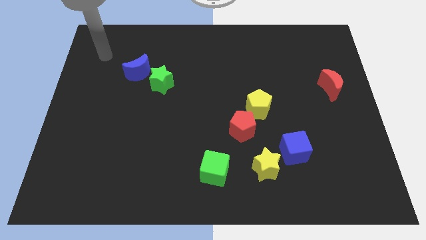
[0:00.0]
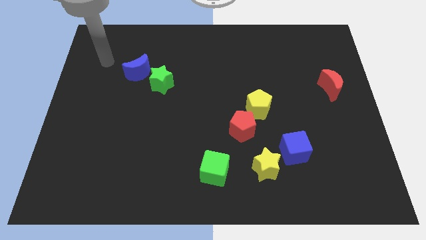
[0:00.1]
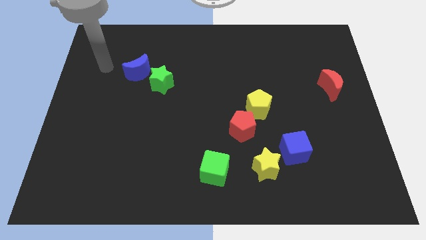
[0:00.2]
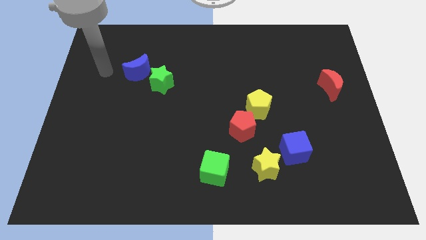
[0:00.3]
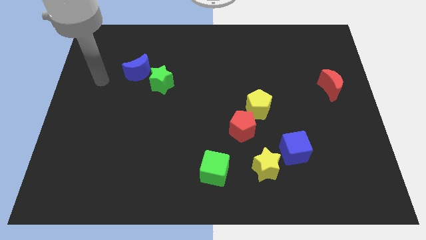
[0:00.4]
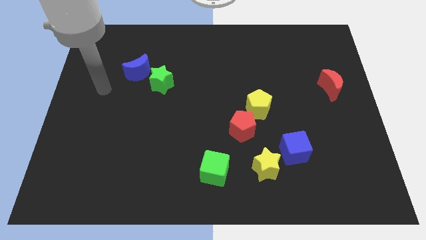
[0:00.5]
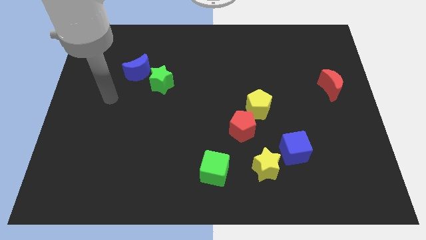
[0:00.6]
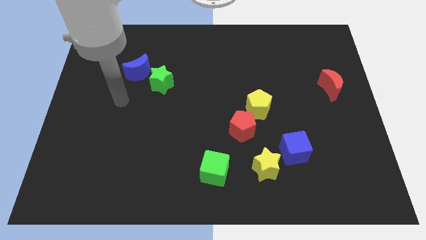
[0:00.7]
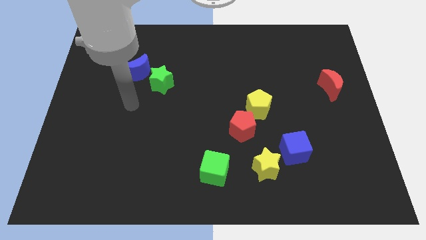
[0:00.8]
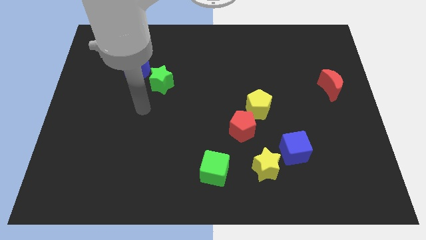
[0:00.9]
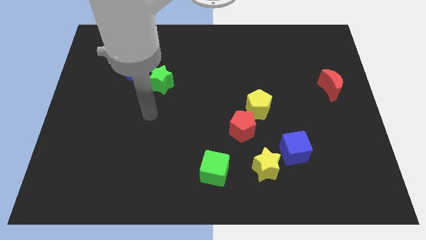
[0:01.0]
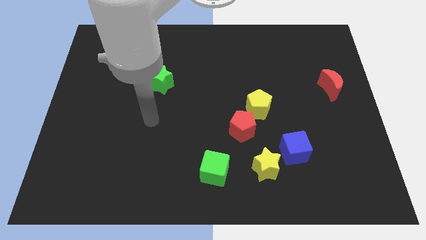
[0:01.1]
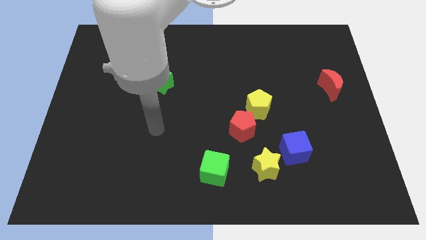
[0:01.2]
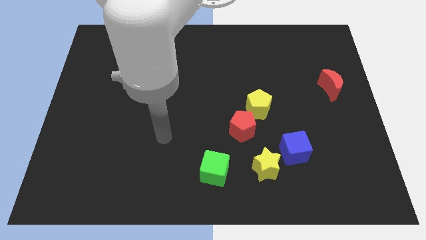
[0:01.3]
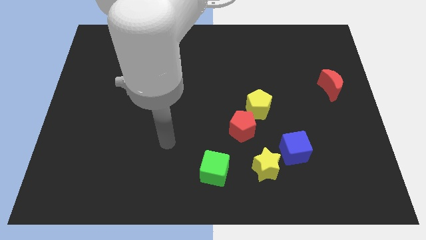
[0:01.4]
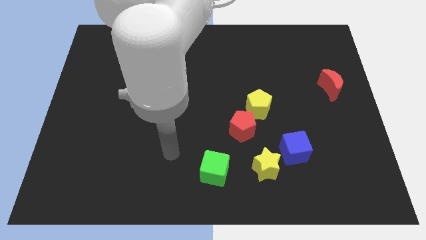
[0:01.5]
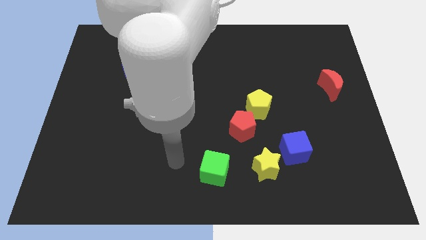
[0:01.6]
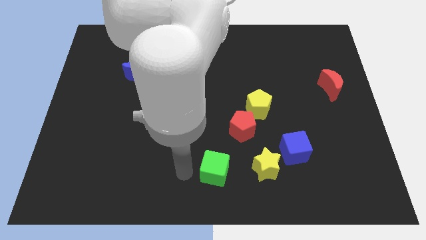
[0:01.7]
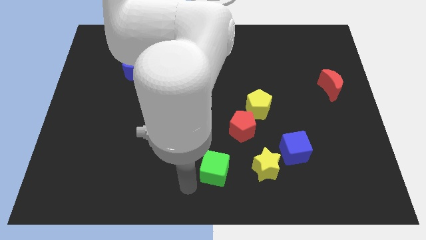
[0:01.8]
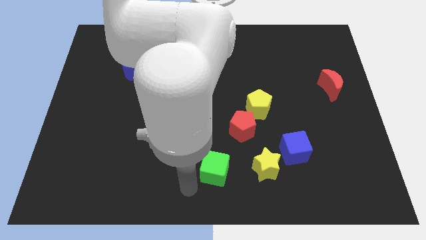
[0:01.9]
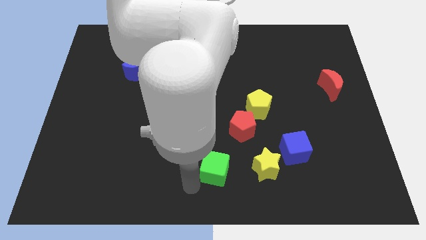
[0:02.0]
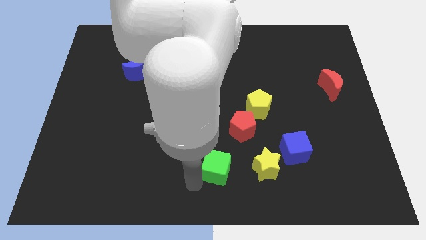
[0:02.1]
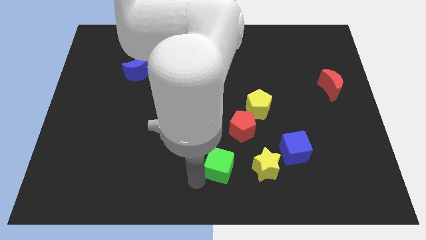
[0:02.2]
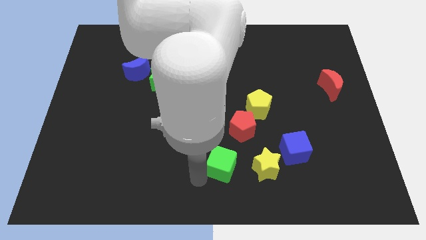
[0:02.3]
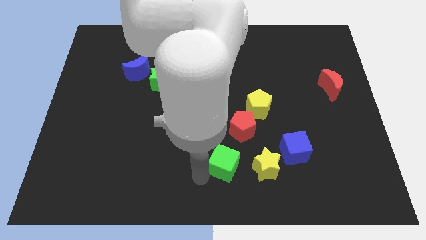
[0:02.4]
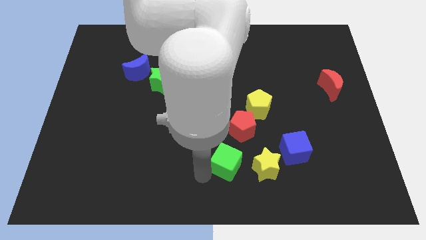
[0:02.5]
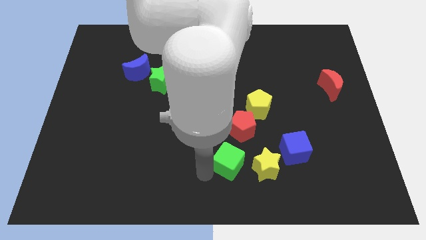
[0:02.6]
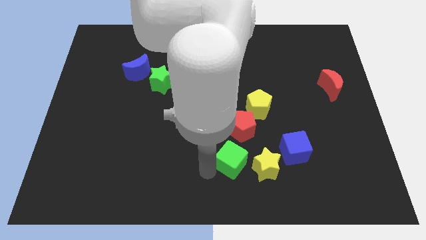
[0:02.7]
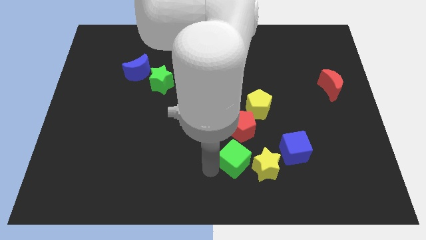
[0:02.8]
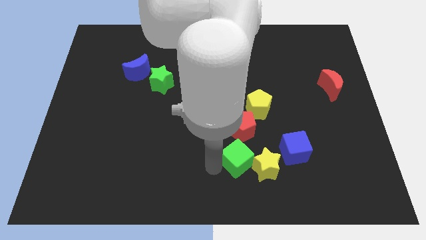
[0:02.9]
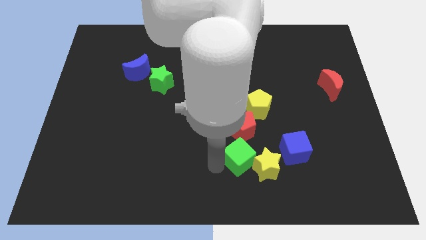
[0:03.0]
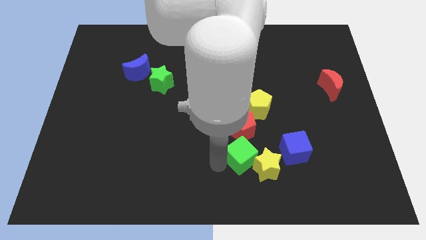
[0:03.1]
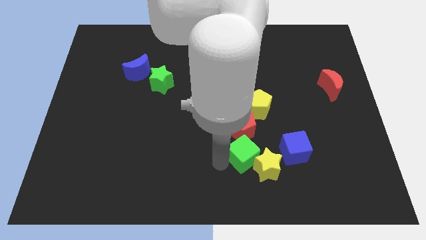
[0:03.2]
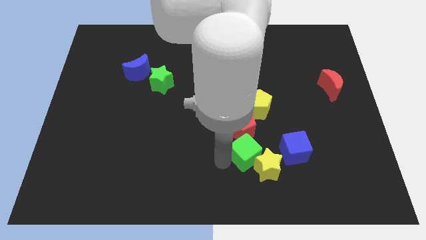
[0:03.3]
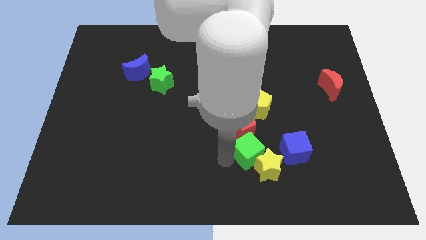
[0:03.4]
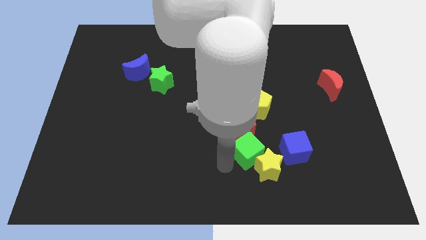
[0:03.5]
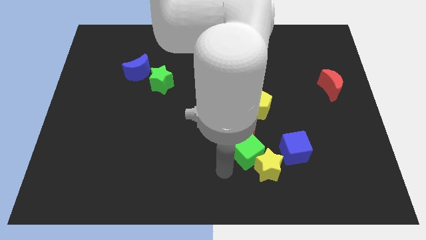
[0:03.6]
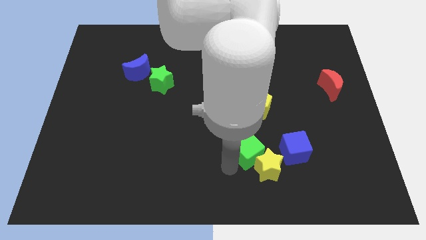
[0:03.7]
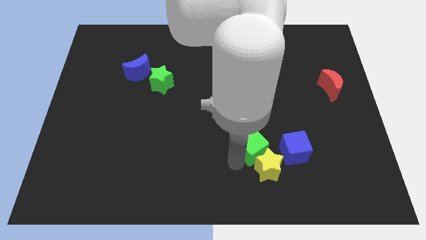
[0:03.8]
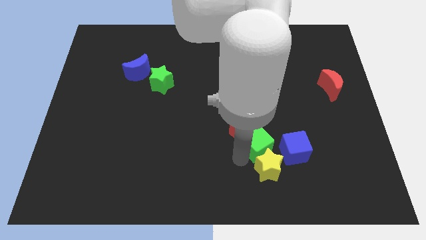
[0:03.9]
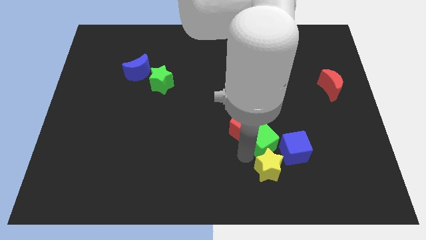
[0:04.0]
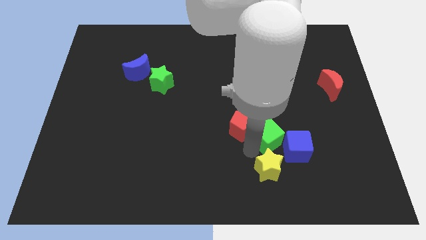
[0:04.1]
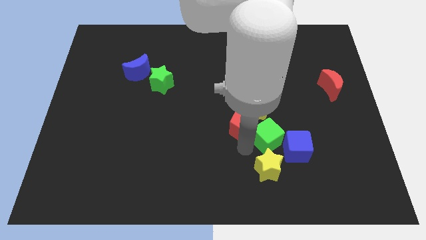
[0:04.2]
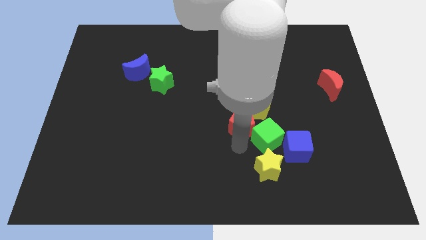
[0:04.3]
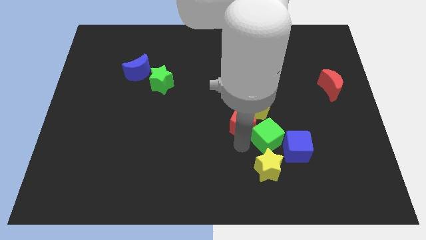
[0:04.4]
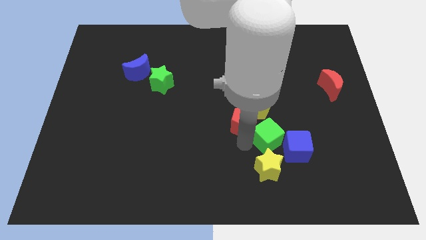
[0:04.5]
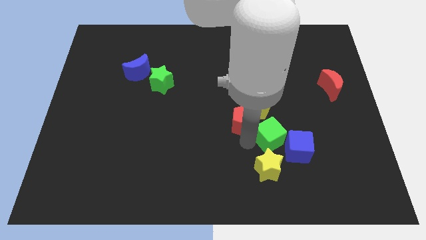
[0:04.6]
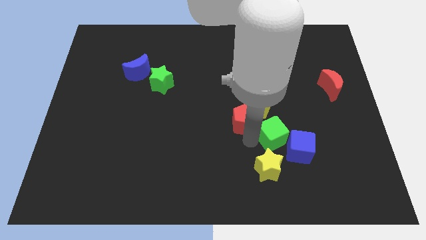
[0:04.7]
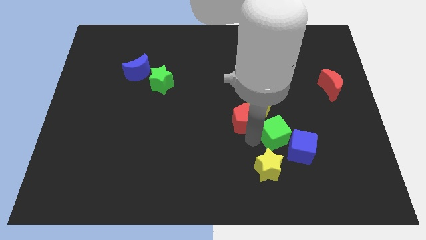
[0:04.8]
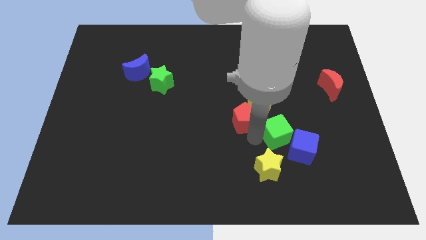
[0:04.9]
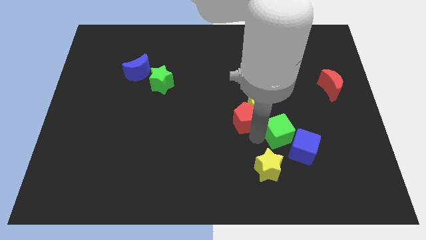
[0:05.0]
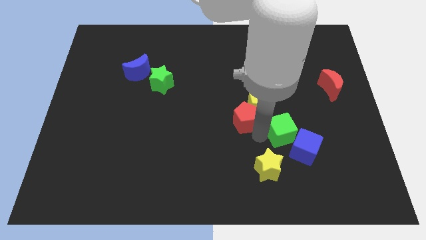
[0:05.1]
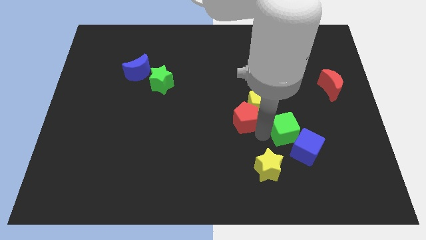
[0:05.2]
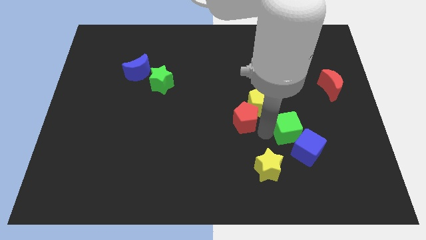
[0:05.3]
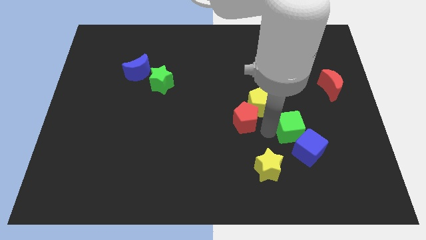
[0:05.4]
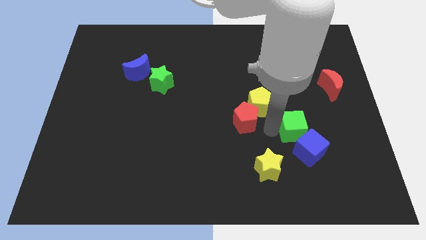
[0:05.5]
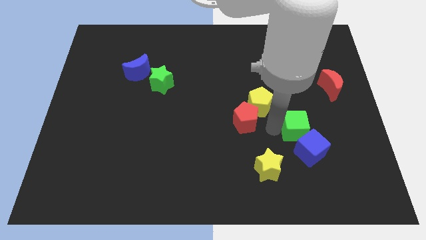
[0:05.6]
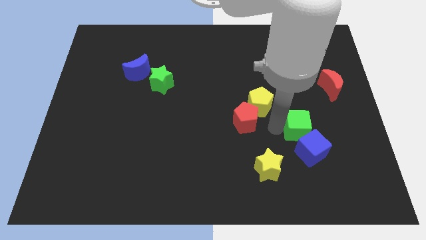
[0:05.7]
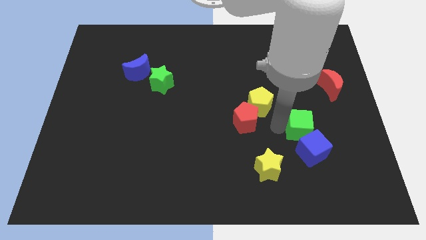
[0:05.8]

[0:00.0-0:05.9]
slide the green cube upwards and to the right

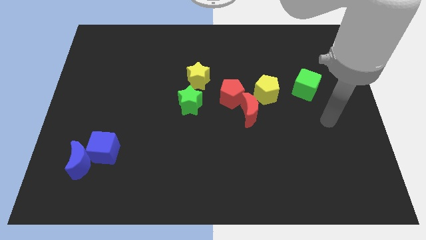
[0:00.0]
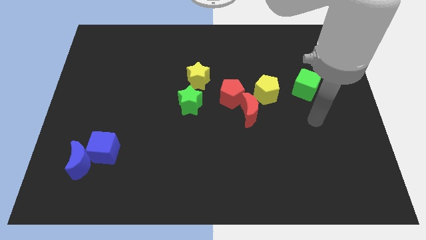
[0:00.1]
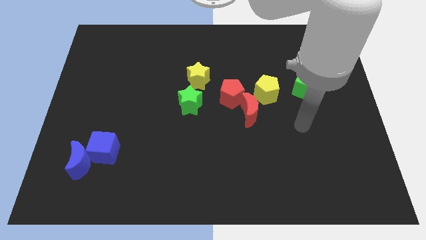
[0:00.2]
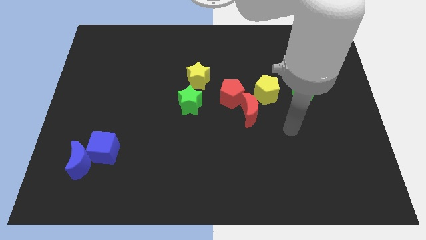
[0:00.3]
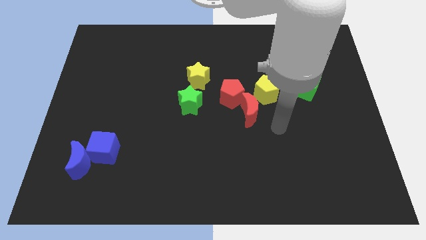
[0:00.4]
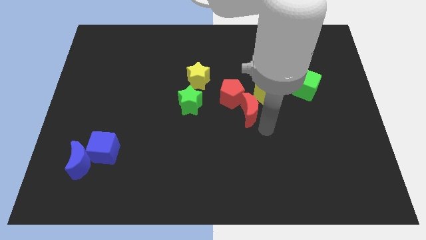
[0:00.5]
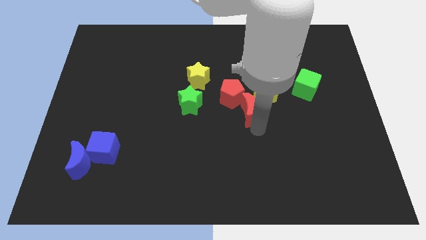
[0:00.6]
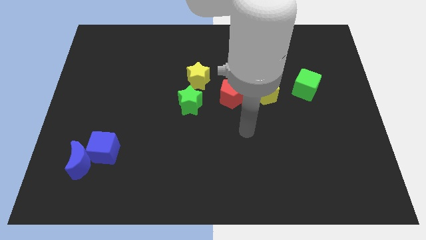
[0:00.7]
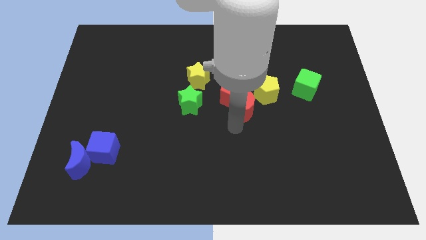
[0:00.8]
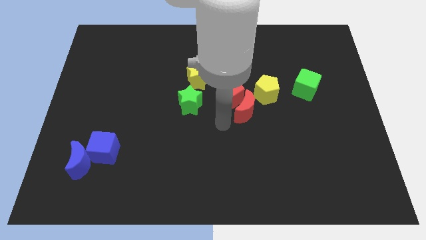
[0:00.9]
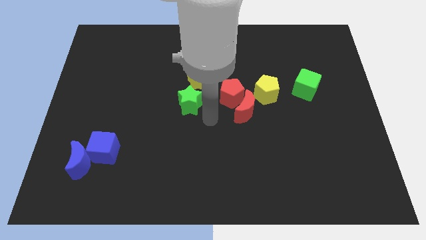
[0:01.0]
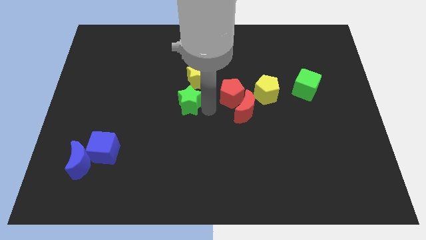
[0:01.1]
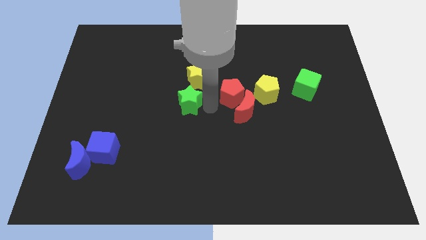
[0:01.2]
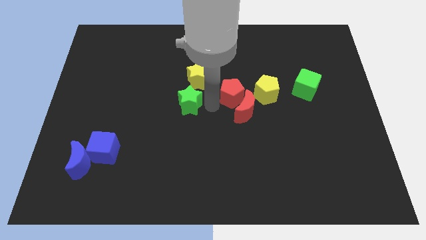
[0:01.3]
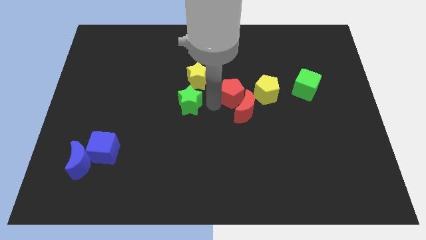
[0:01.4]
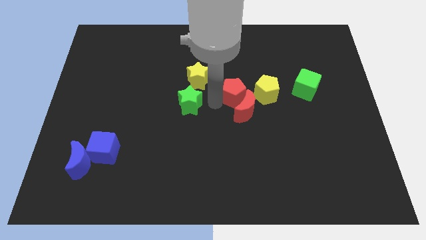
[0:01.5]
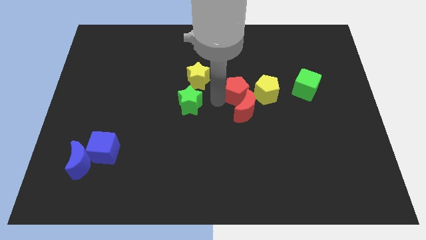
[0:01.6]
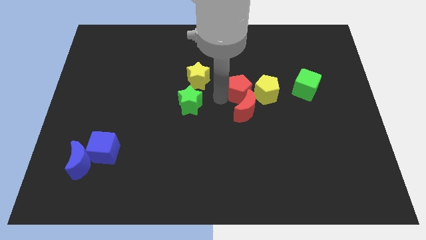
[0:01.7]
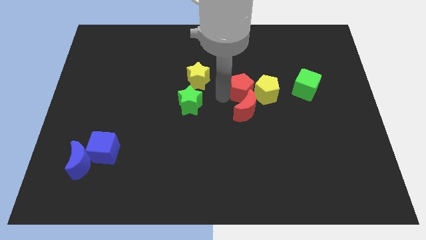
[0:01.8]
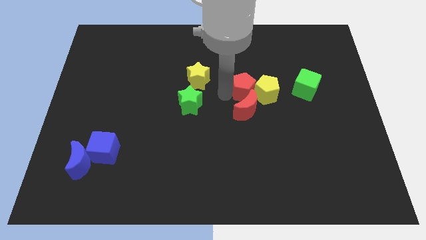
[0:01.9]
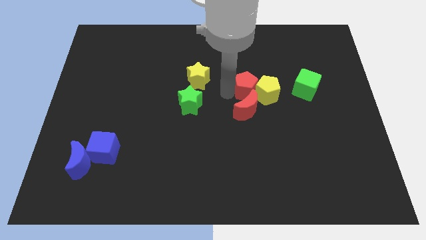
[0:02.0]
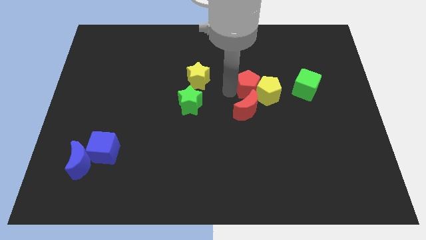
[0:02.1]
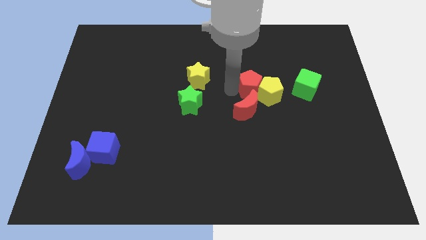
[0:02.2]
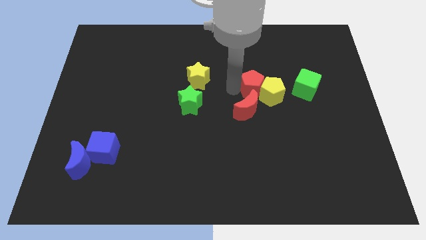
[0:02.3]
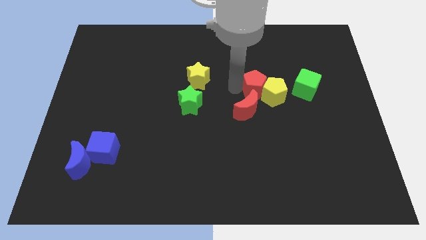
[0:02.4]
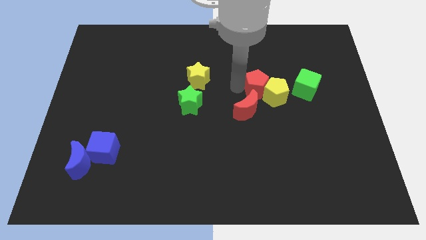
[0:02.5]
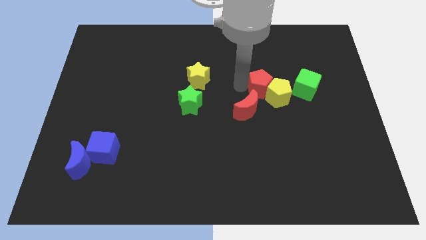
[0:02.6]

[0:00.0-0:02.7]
push the red pentagon upwards and then right a bit
